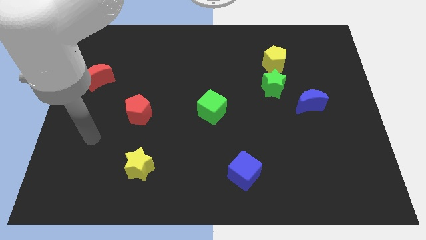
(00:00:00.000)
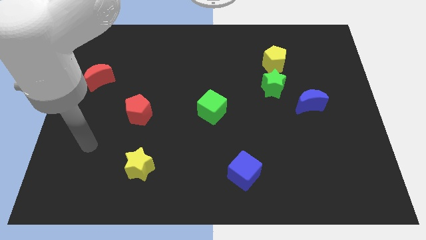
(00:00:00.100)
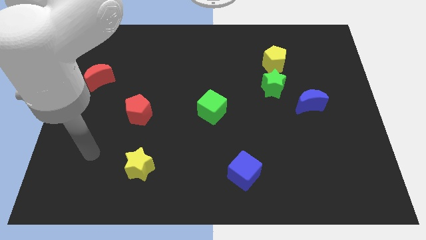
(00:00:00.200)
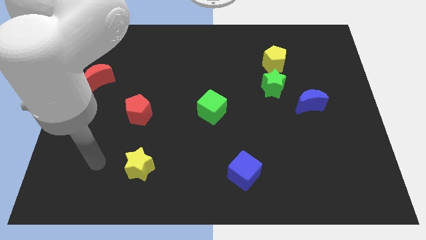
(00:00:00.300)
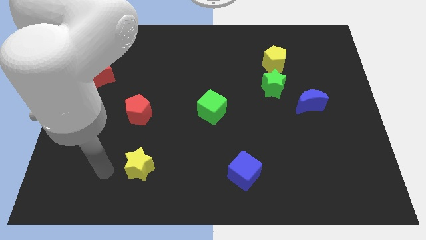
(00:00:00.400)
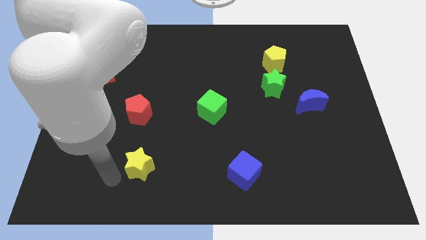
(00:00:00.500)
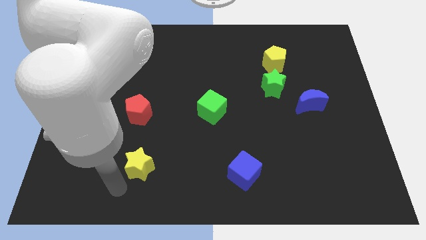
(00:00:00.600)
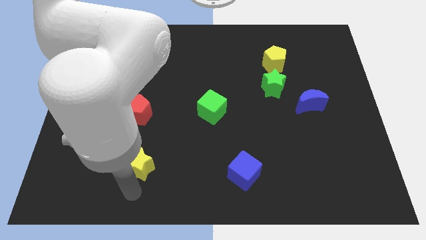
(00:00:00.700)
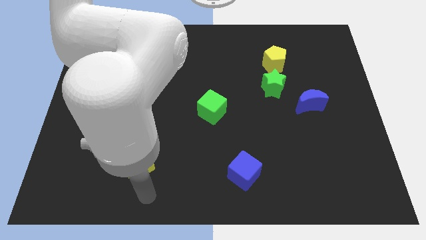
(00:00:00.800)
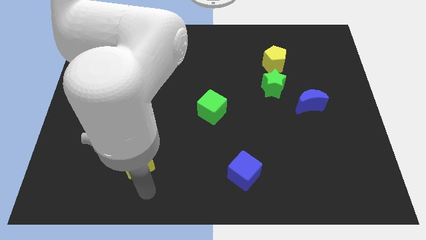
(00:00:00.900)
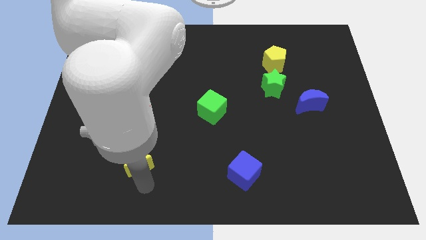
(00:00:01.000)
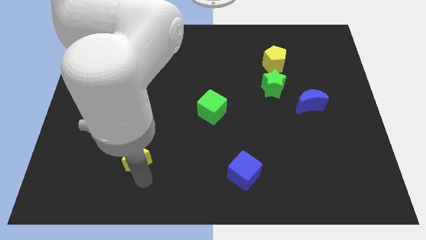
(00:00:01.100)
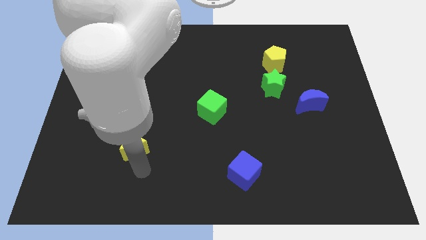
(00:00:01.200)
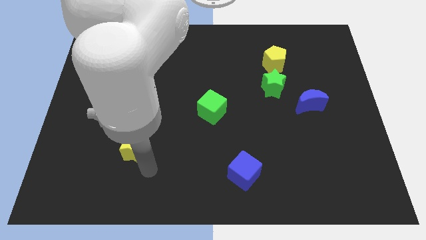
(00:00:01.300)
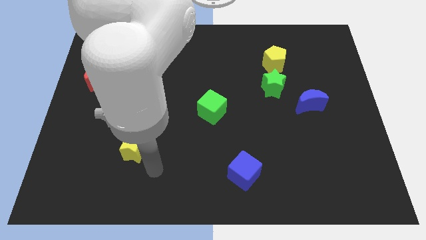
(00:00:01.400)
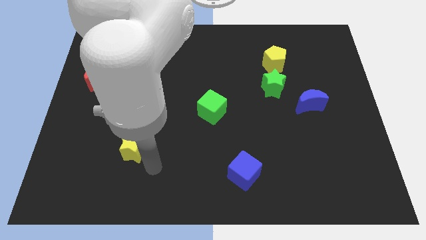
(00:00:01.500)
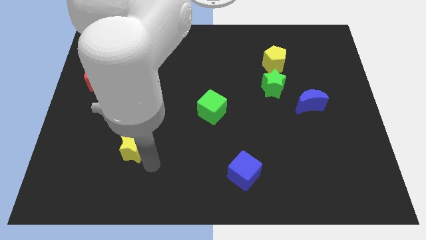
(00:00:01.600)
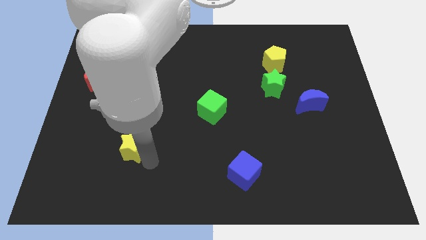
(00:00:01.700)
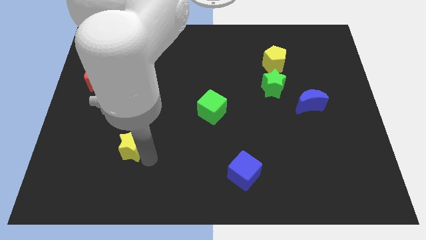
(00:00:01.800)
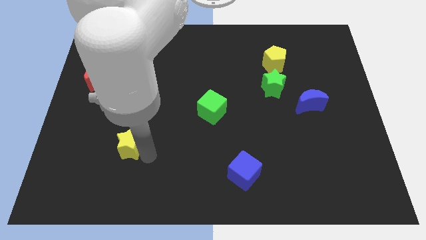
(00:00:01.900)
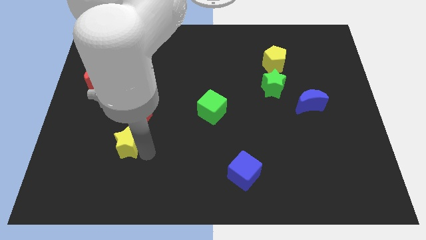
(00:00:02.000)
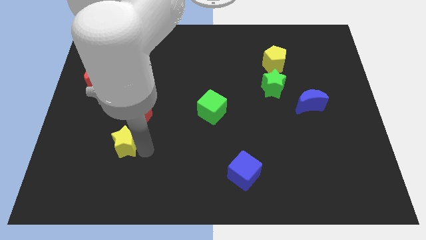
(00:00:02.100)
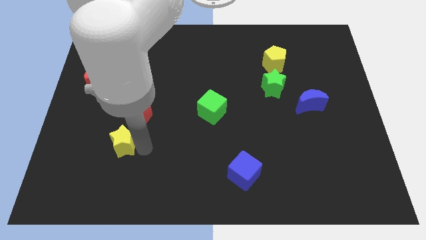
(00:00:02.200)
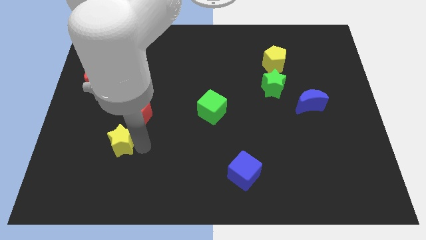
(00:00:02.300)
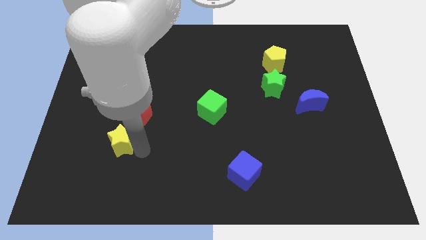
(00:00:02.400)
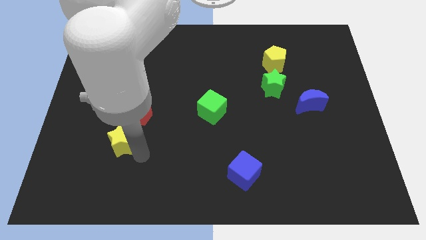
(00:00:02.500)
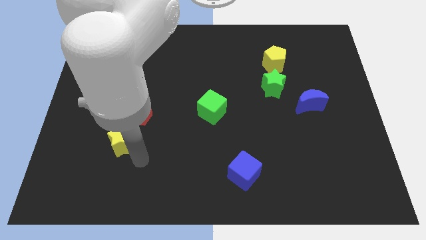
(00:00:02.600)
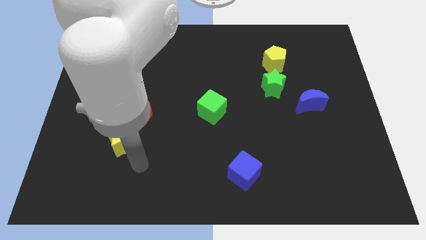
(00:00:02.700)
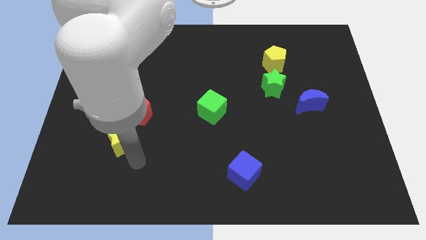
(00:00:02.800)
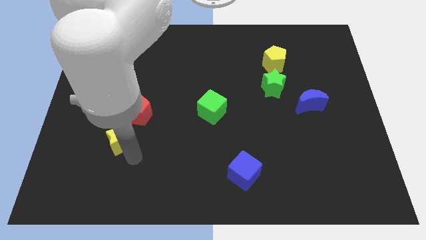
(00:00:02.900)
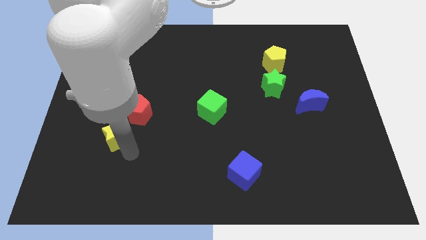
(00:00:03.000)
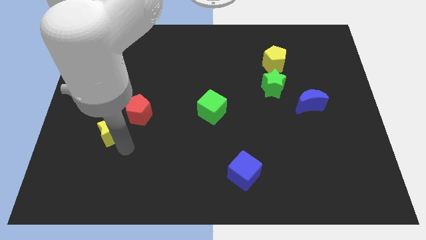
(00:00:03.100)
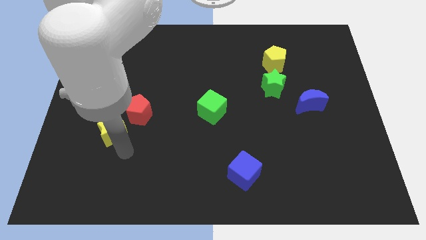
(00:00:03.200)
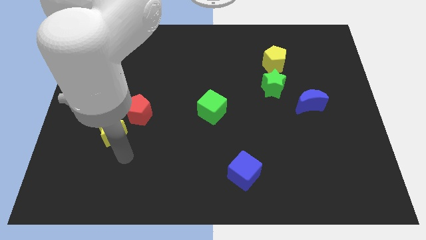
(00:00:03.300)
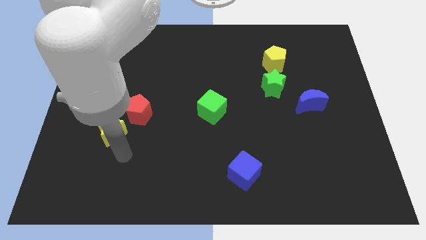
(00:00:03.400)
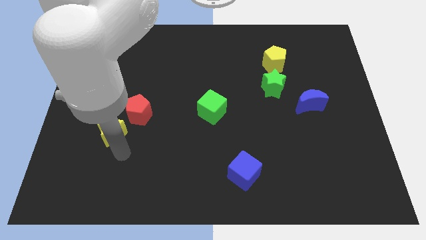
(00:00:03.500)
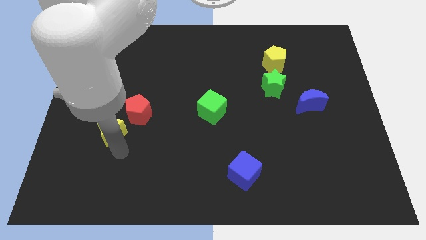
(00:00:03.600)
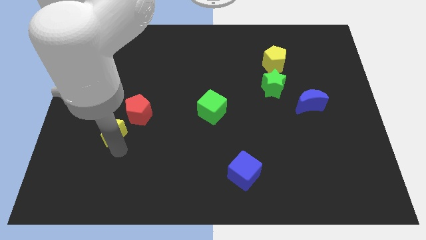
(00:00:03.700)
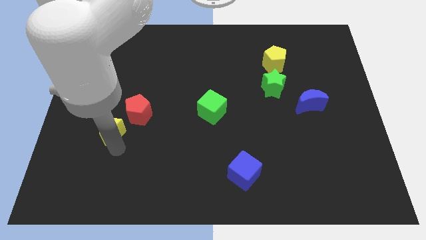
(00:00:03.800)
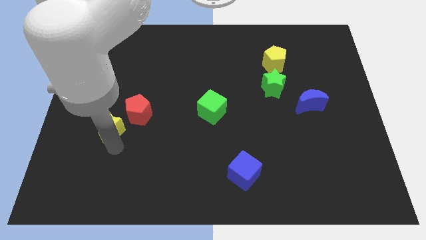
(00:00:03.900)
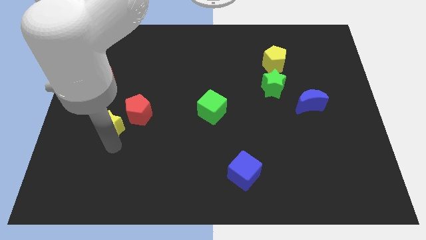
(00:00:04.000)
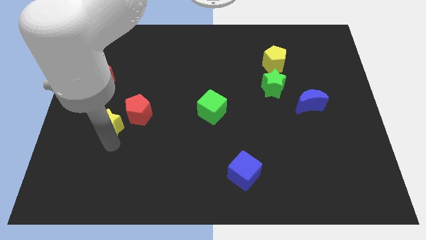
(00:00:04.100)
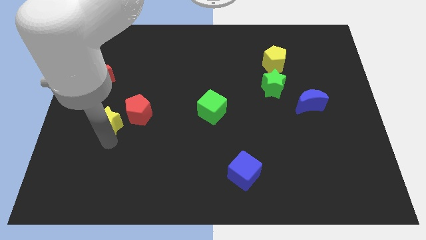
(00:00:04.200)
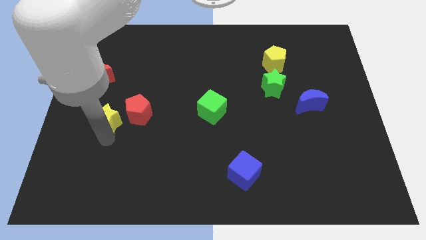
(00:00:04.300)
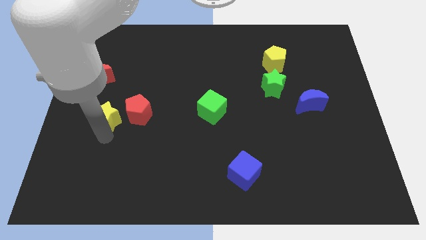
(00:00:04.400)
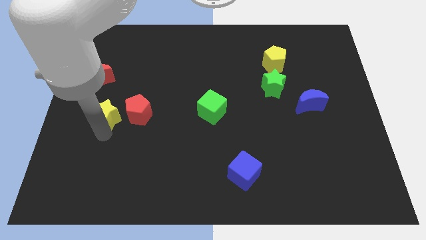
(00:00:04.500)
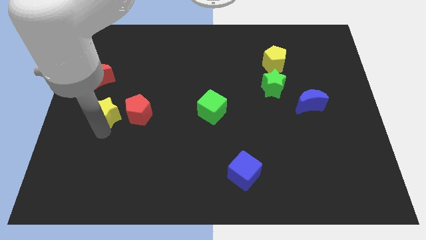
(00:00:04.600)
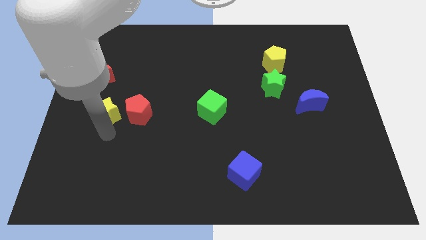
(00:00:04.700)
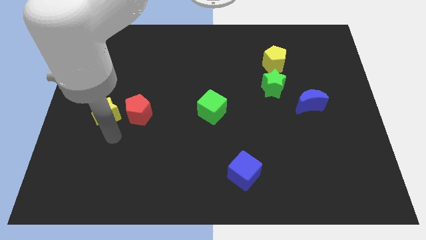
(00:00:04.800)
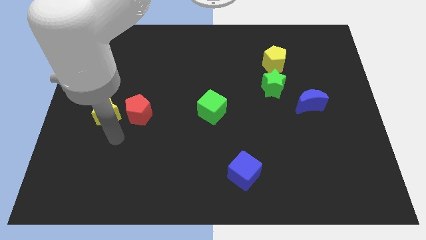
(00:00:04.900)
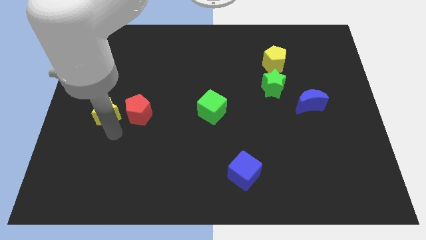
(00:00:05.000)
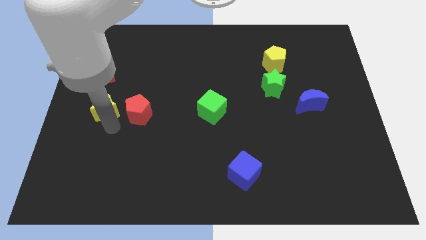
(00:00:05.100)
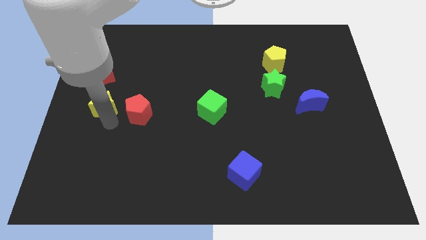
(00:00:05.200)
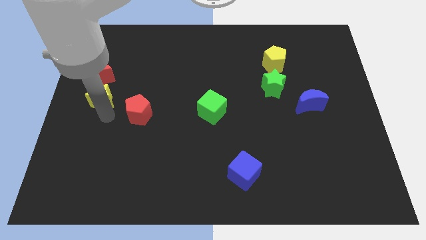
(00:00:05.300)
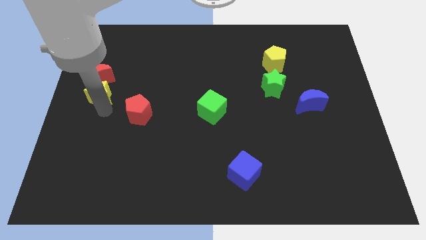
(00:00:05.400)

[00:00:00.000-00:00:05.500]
move the yellow star next to the red moon

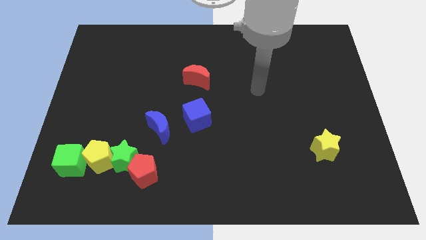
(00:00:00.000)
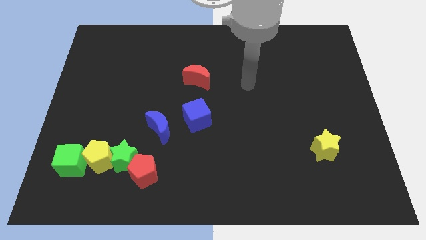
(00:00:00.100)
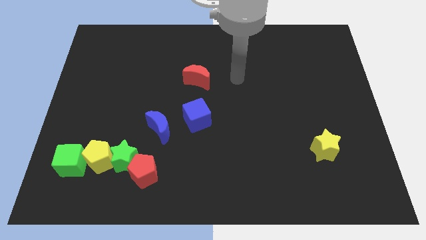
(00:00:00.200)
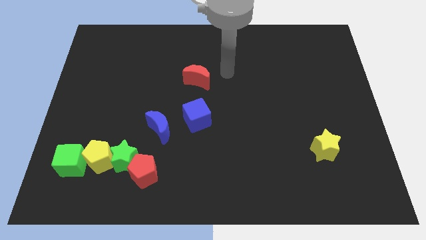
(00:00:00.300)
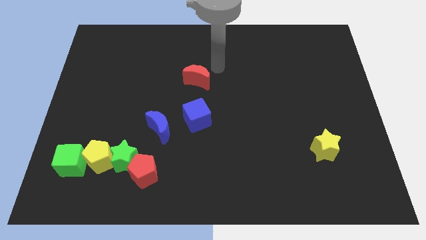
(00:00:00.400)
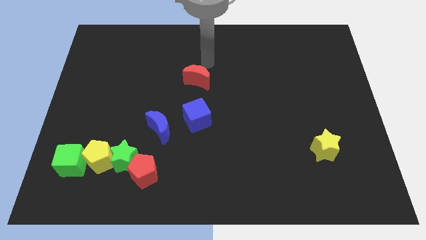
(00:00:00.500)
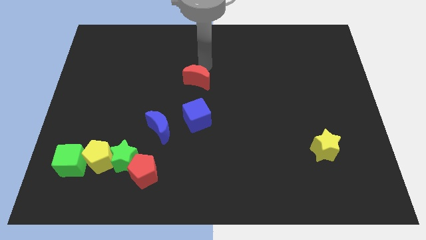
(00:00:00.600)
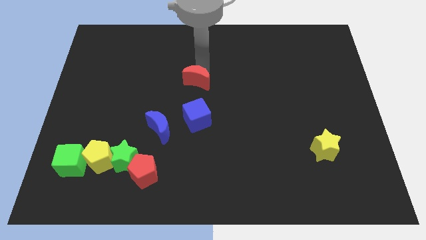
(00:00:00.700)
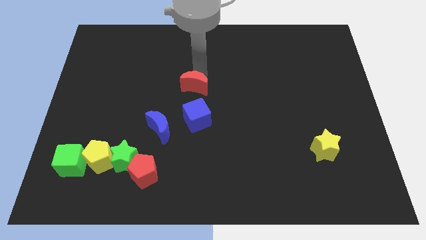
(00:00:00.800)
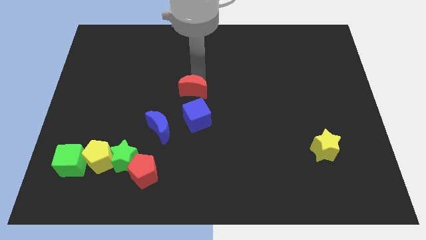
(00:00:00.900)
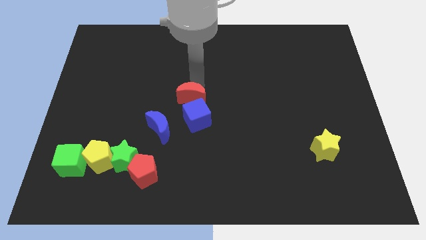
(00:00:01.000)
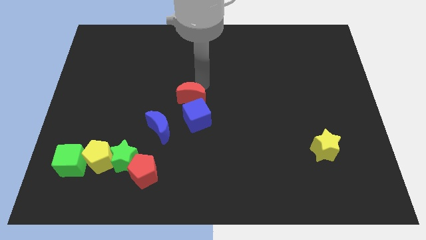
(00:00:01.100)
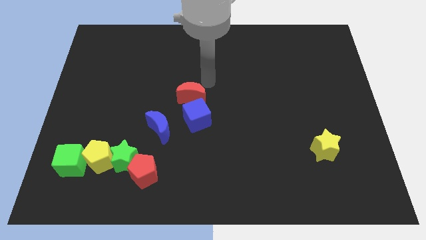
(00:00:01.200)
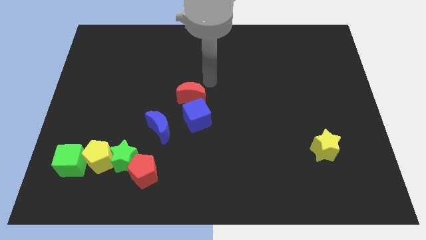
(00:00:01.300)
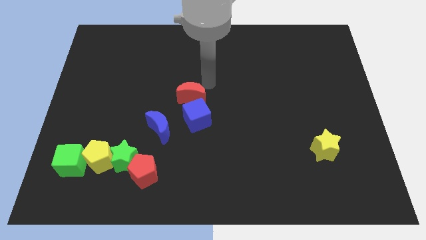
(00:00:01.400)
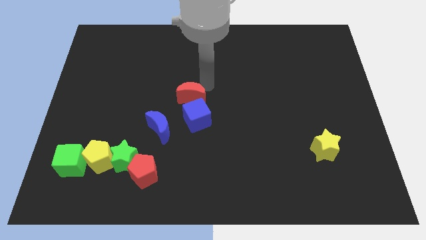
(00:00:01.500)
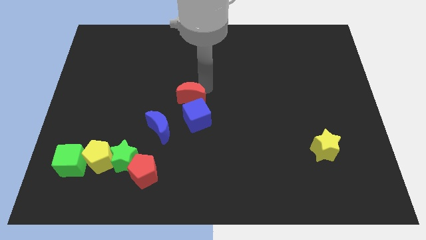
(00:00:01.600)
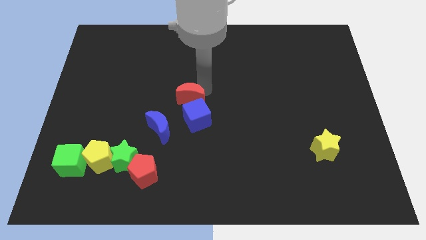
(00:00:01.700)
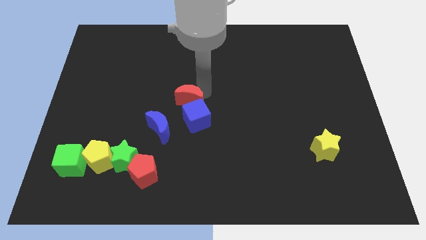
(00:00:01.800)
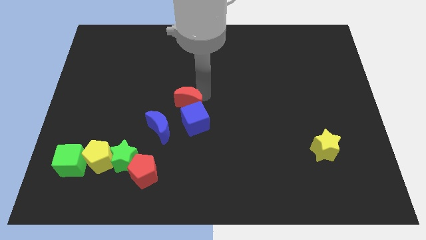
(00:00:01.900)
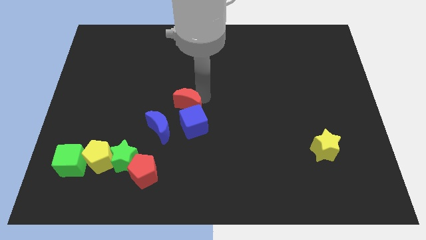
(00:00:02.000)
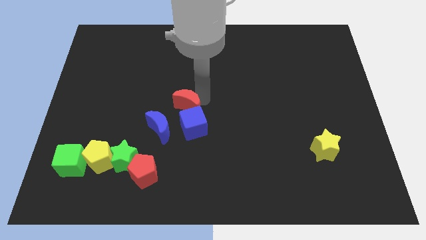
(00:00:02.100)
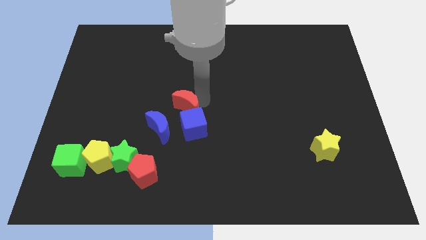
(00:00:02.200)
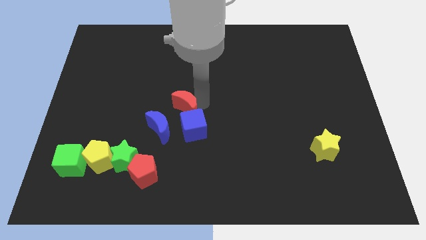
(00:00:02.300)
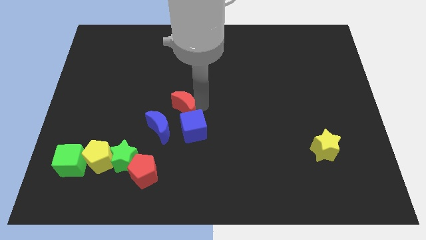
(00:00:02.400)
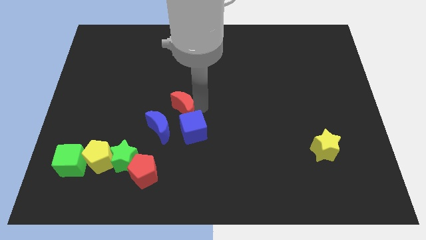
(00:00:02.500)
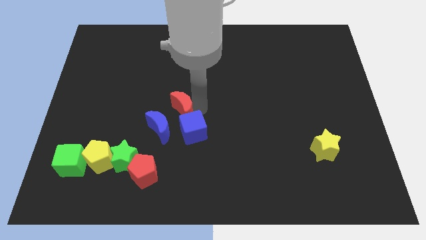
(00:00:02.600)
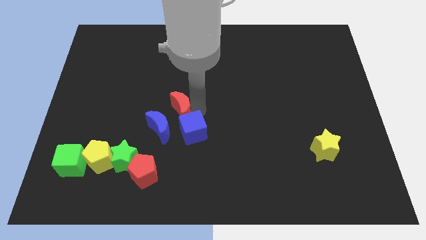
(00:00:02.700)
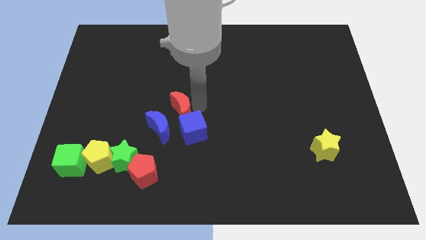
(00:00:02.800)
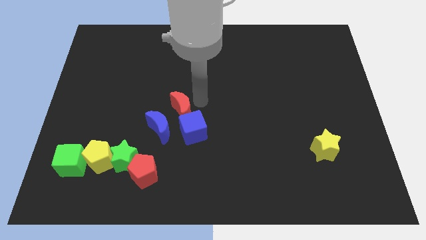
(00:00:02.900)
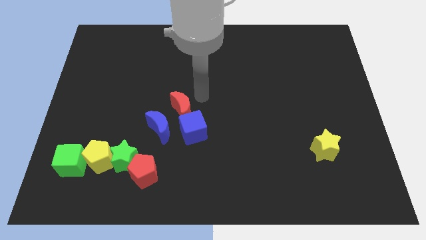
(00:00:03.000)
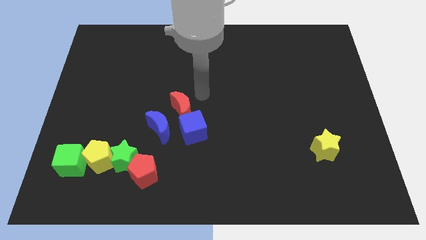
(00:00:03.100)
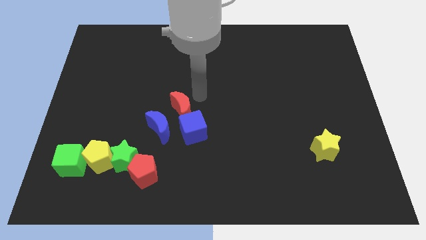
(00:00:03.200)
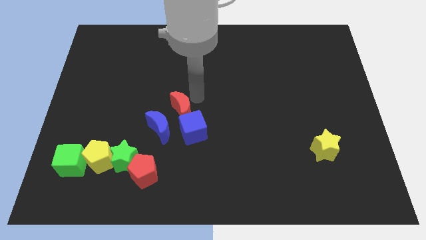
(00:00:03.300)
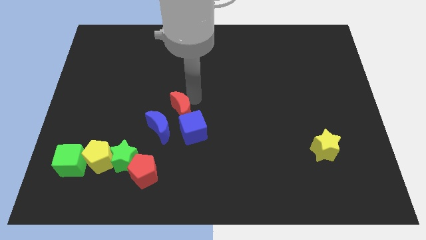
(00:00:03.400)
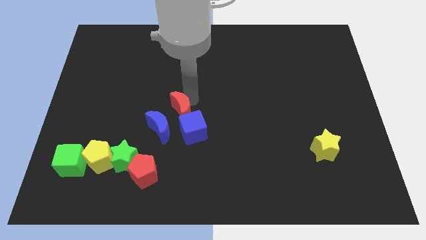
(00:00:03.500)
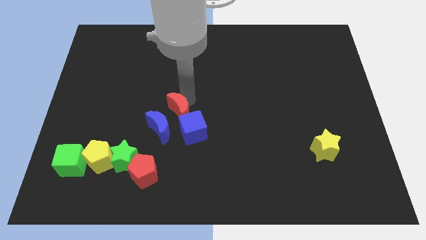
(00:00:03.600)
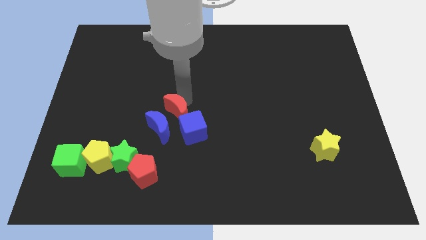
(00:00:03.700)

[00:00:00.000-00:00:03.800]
put the red moon towards the blue moon
